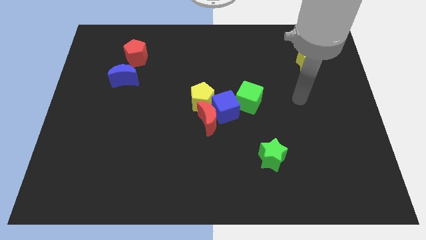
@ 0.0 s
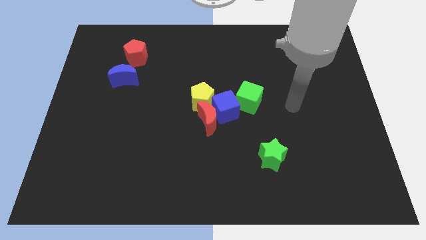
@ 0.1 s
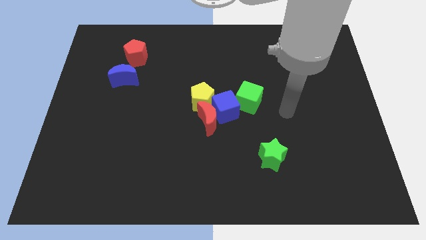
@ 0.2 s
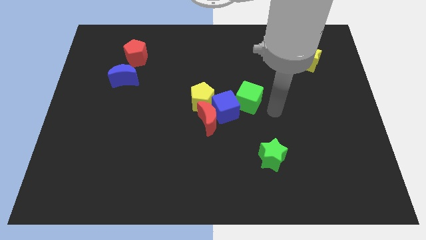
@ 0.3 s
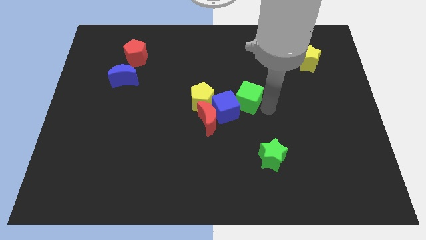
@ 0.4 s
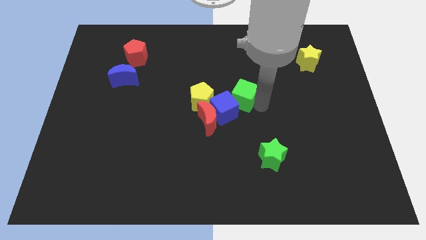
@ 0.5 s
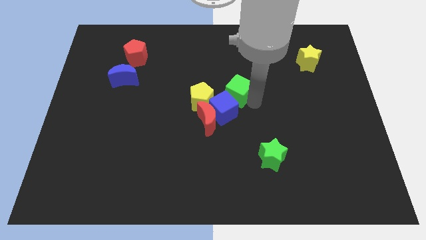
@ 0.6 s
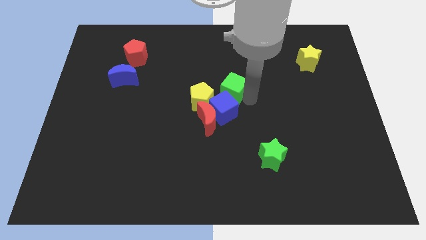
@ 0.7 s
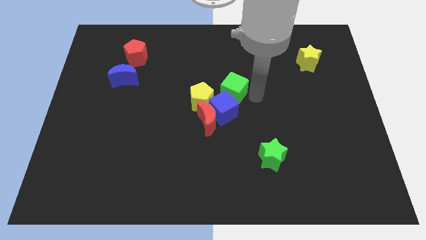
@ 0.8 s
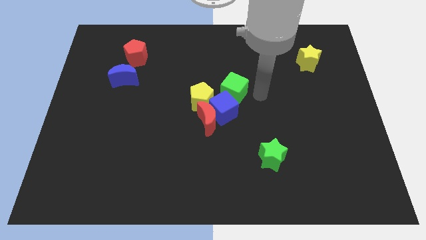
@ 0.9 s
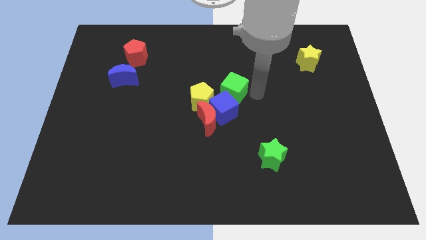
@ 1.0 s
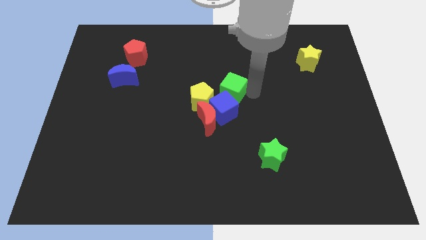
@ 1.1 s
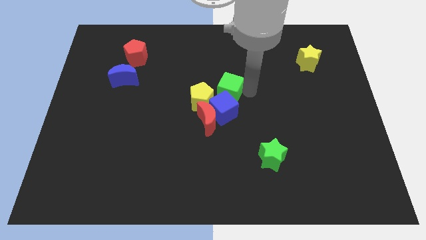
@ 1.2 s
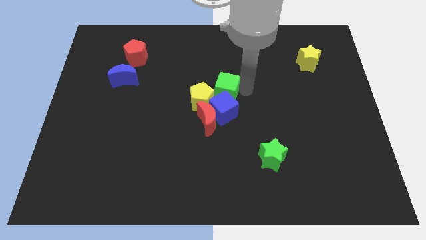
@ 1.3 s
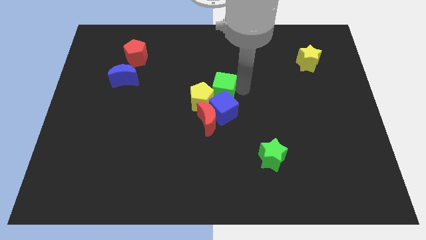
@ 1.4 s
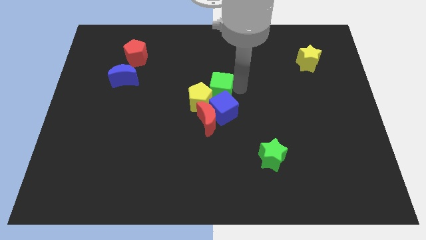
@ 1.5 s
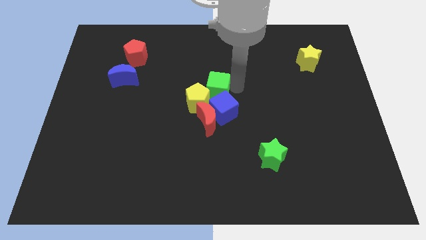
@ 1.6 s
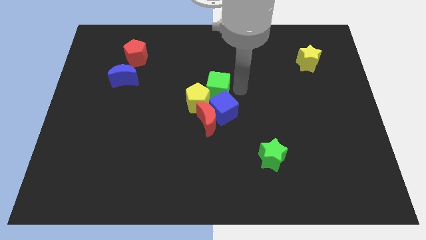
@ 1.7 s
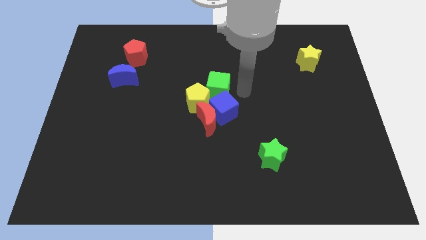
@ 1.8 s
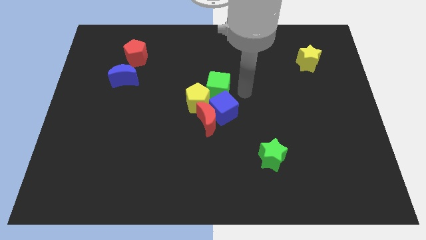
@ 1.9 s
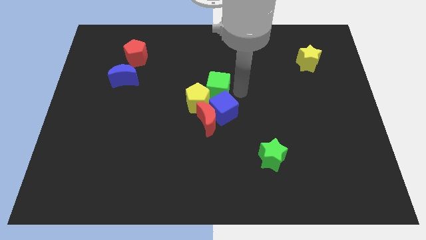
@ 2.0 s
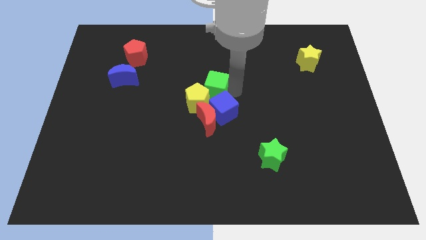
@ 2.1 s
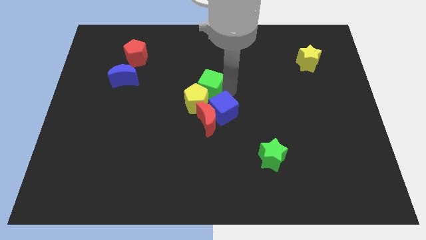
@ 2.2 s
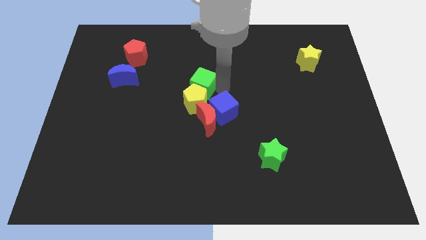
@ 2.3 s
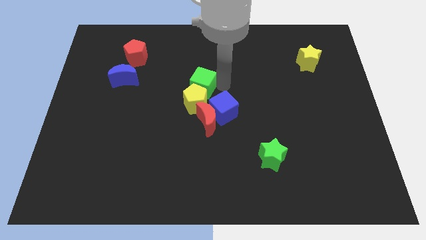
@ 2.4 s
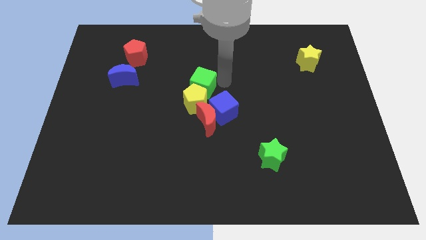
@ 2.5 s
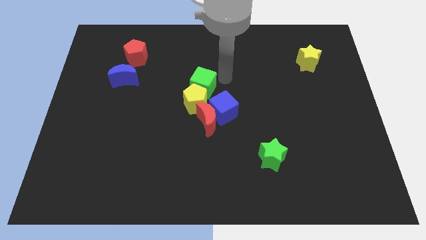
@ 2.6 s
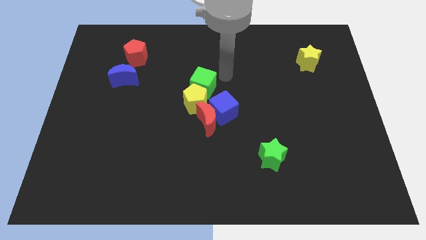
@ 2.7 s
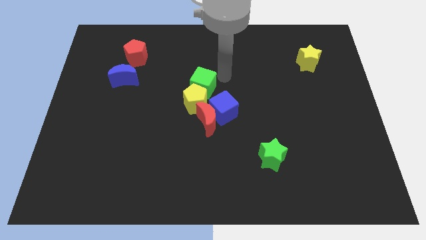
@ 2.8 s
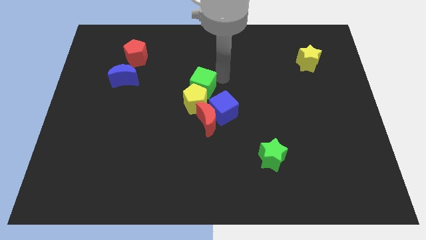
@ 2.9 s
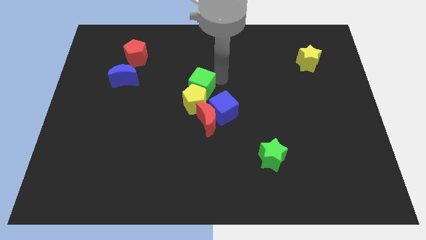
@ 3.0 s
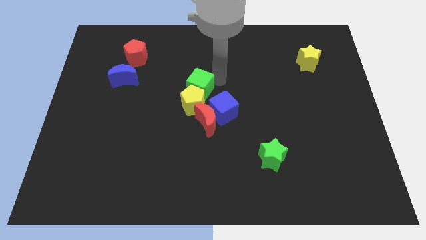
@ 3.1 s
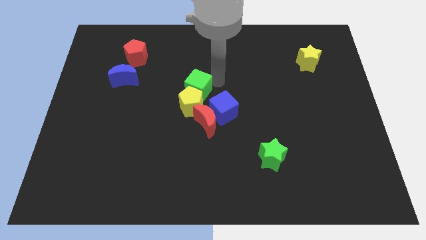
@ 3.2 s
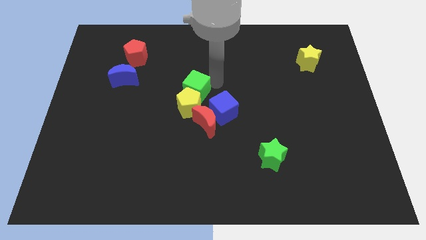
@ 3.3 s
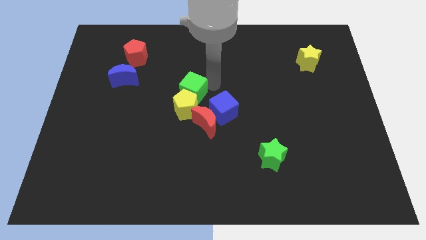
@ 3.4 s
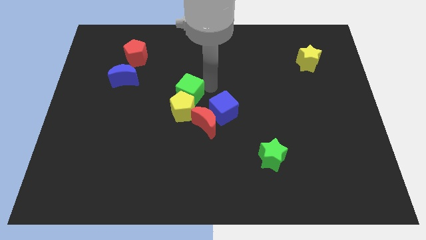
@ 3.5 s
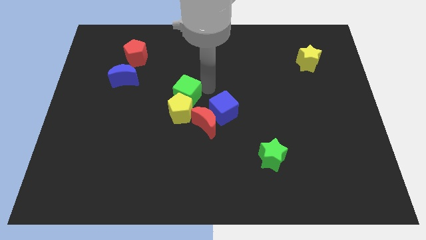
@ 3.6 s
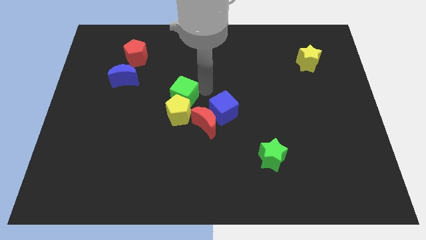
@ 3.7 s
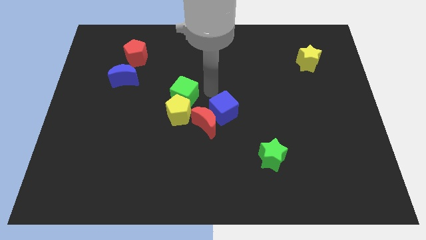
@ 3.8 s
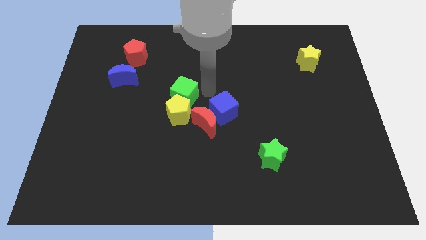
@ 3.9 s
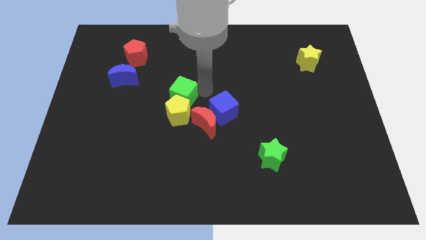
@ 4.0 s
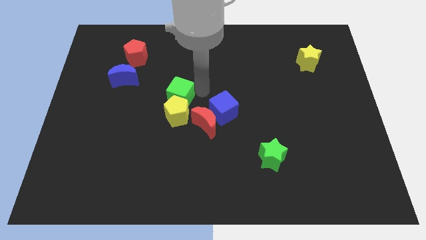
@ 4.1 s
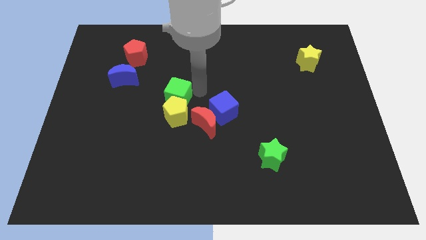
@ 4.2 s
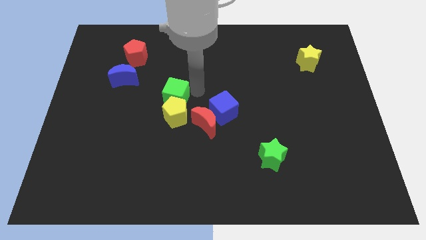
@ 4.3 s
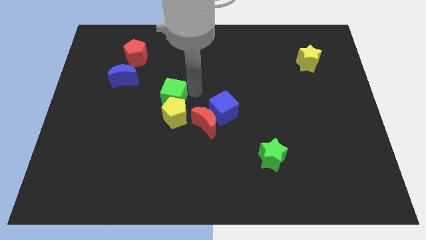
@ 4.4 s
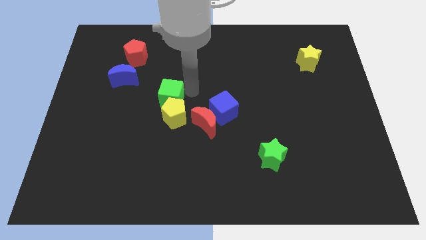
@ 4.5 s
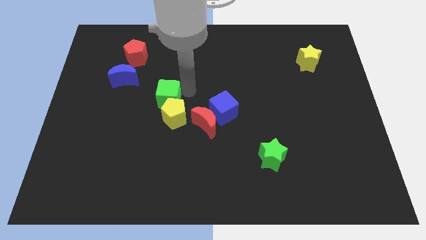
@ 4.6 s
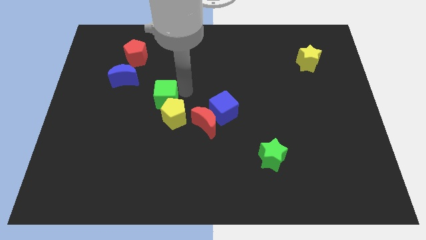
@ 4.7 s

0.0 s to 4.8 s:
move the green cube to the left

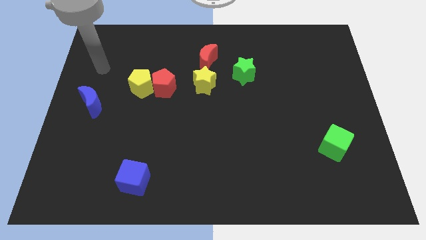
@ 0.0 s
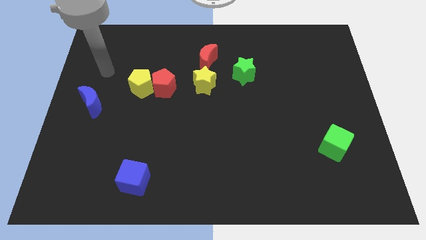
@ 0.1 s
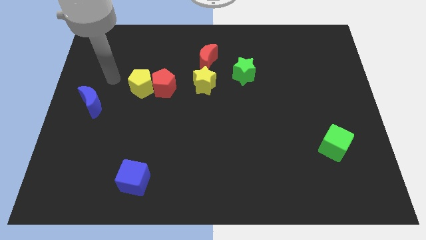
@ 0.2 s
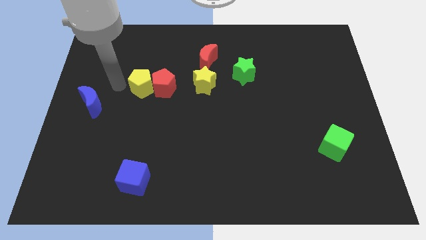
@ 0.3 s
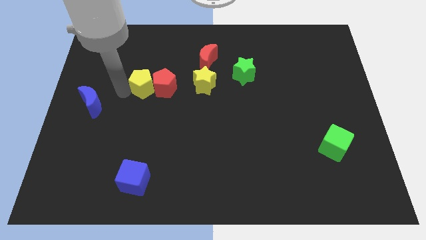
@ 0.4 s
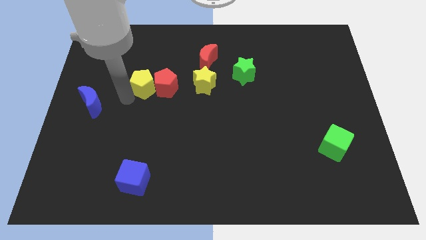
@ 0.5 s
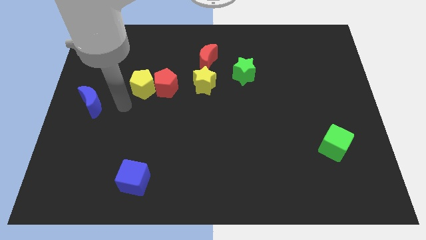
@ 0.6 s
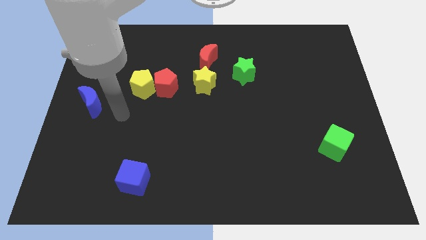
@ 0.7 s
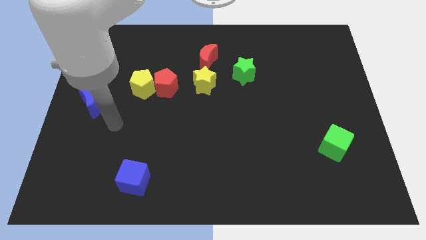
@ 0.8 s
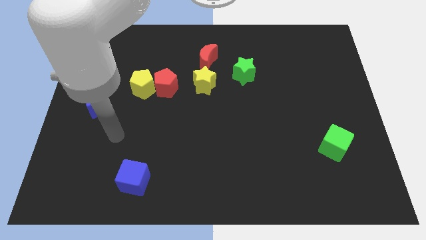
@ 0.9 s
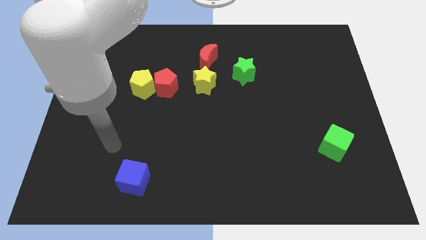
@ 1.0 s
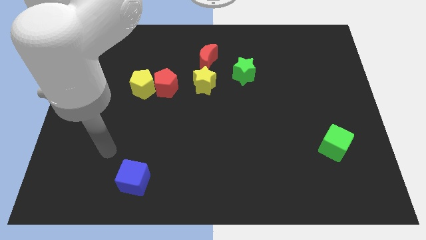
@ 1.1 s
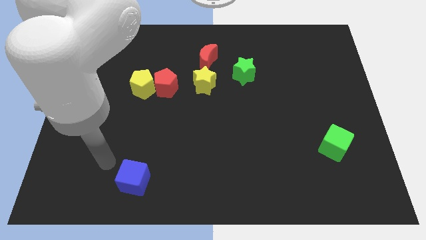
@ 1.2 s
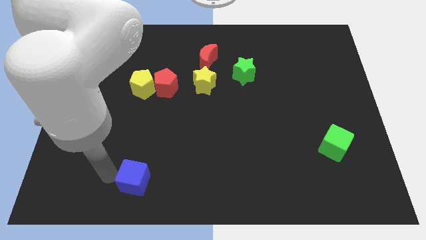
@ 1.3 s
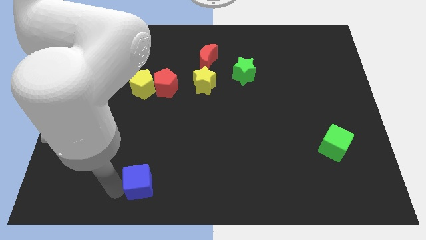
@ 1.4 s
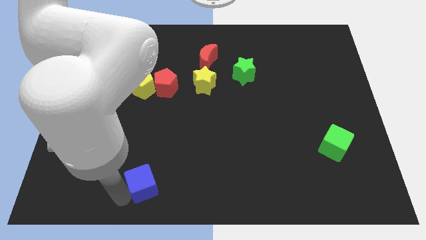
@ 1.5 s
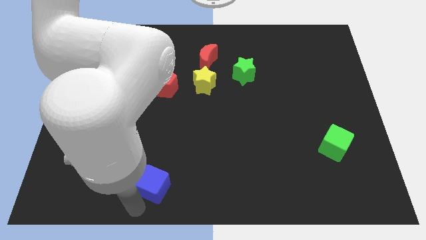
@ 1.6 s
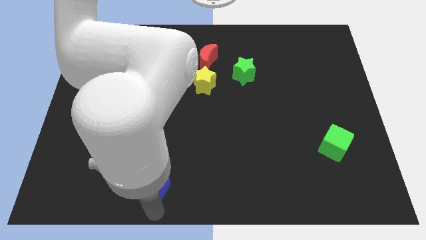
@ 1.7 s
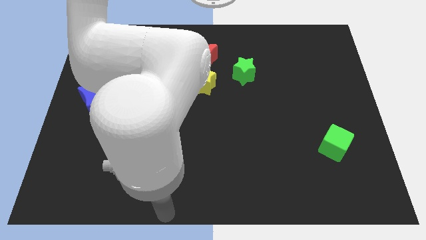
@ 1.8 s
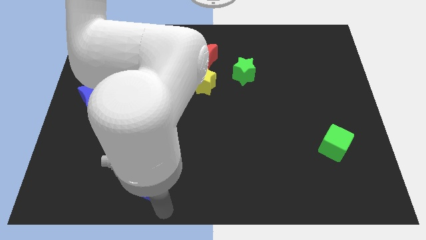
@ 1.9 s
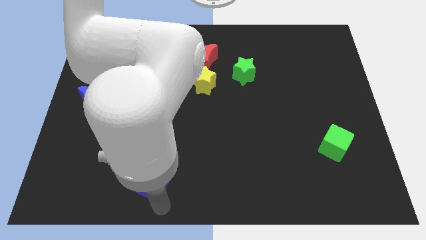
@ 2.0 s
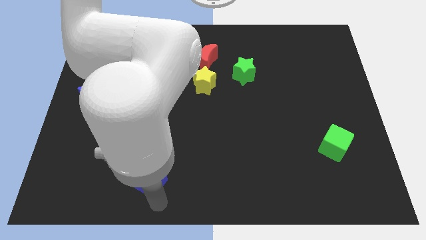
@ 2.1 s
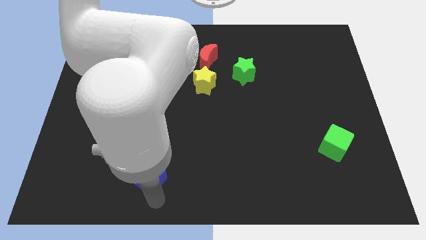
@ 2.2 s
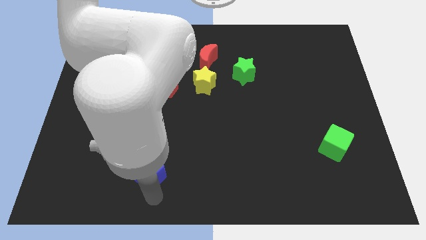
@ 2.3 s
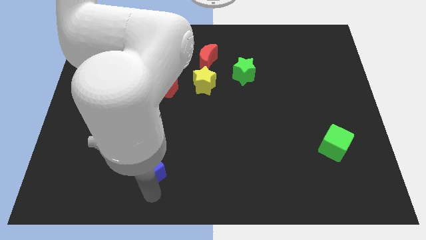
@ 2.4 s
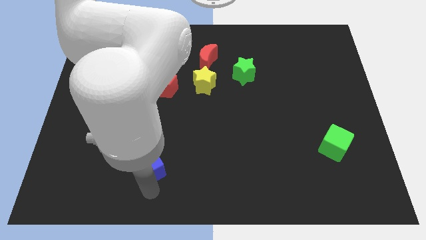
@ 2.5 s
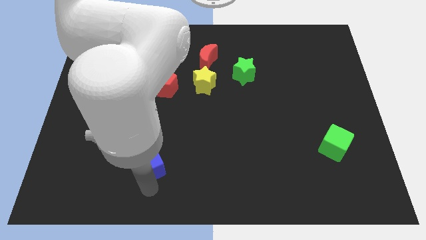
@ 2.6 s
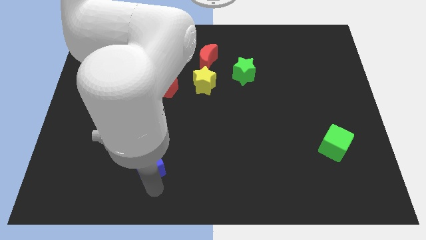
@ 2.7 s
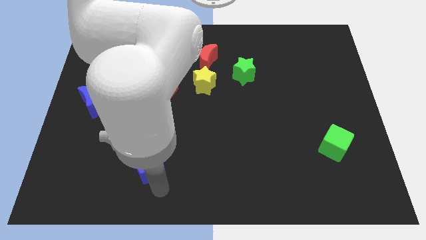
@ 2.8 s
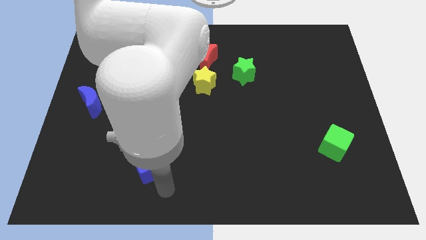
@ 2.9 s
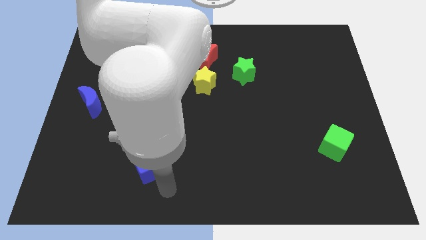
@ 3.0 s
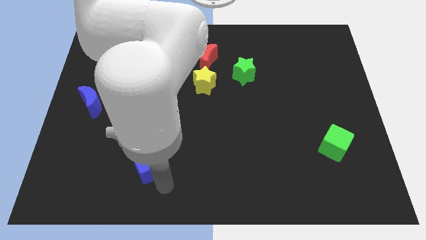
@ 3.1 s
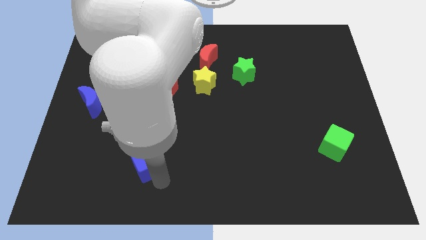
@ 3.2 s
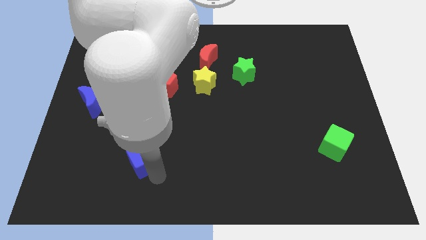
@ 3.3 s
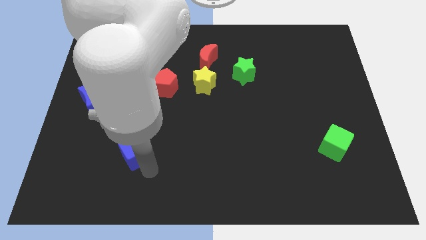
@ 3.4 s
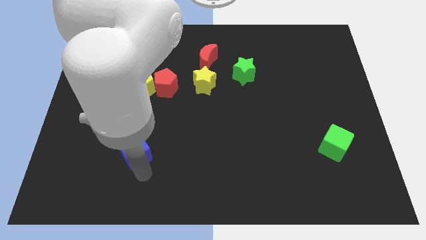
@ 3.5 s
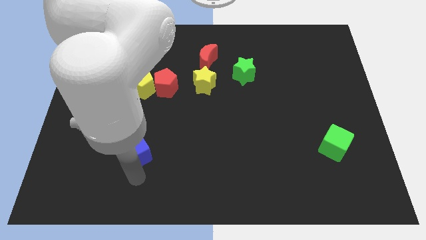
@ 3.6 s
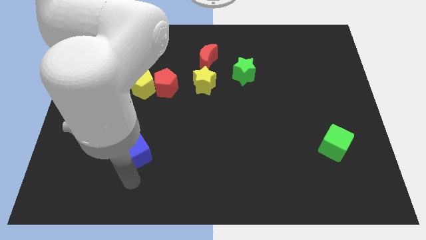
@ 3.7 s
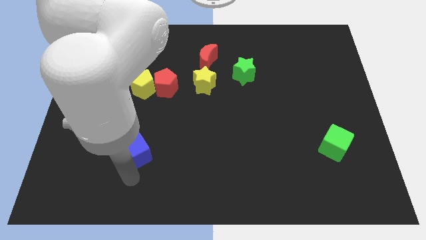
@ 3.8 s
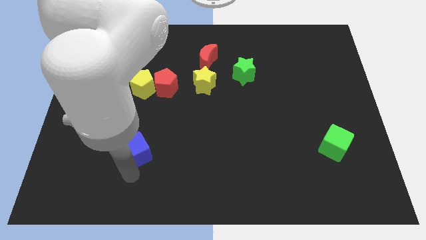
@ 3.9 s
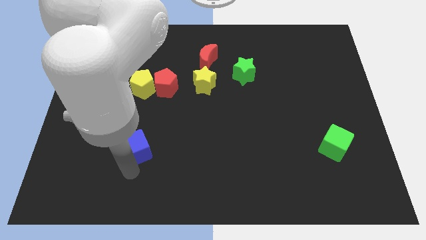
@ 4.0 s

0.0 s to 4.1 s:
slide the blue cube a bit up
